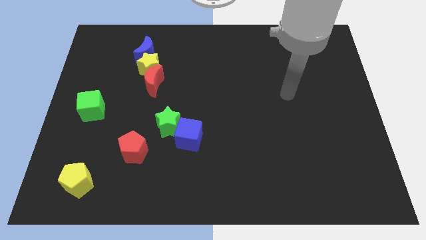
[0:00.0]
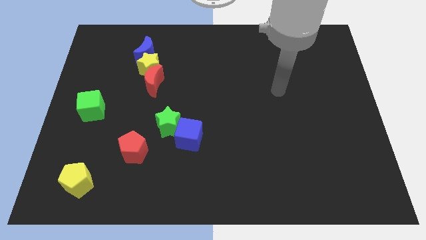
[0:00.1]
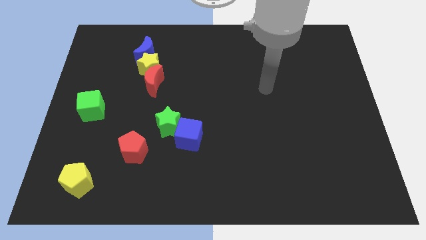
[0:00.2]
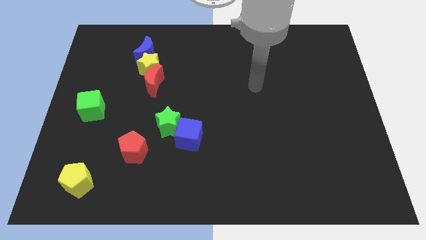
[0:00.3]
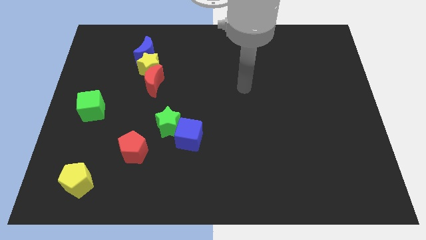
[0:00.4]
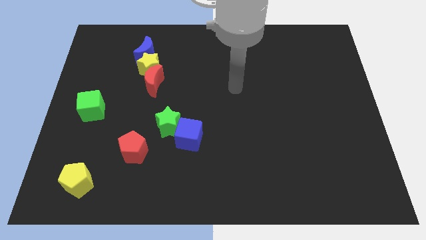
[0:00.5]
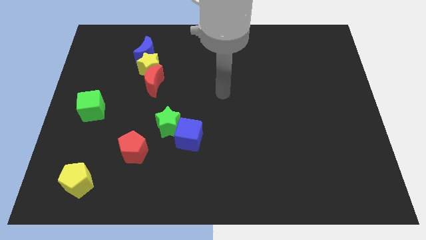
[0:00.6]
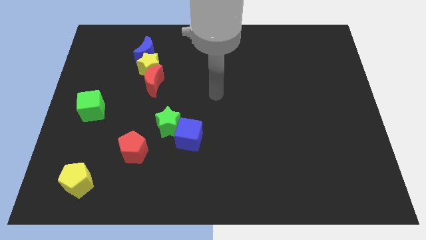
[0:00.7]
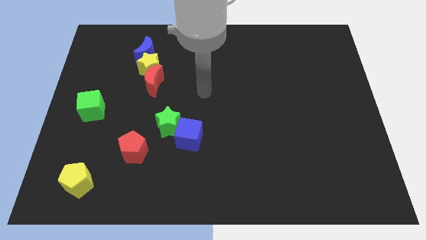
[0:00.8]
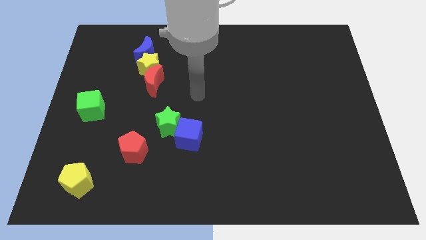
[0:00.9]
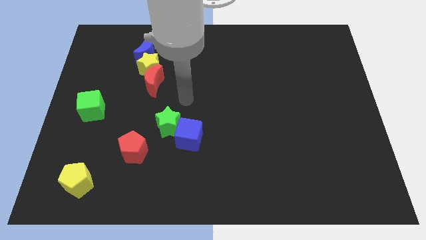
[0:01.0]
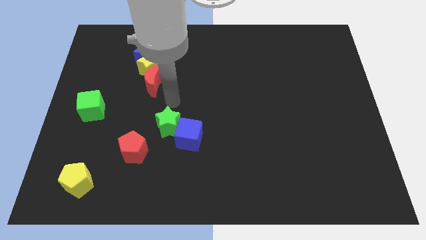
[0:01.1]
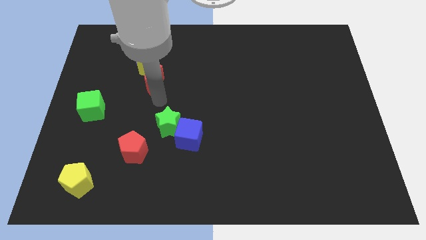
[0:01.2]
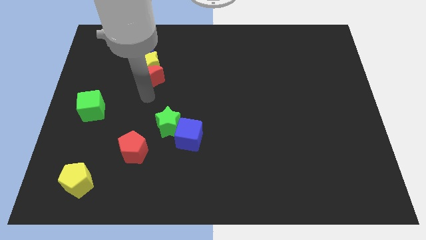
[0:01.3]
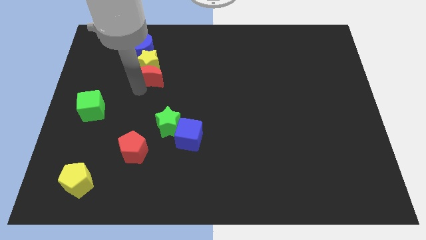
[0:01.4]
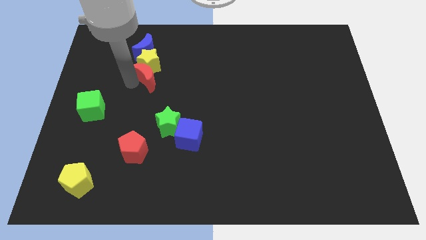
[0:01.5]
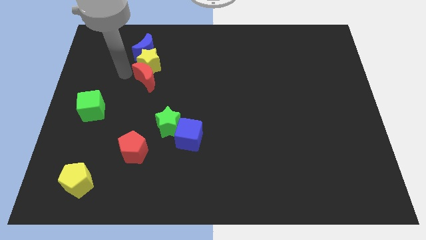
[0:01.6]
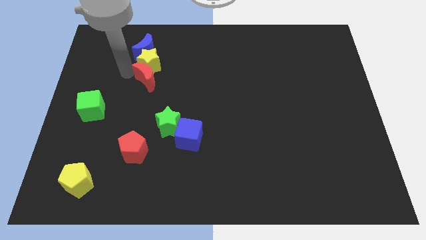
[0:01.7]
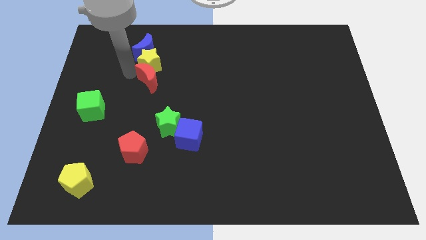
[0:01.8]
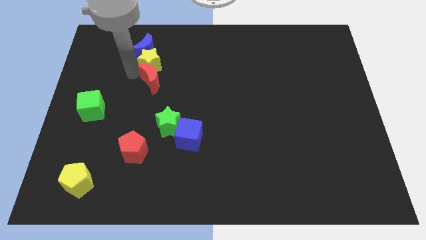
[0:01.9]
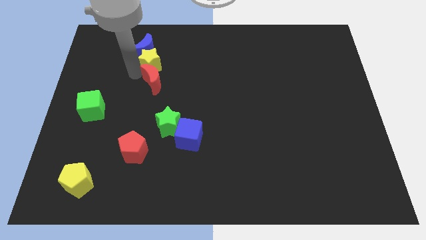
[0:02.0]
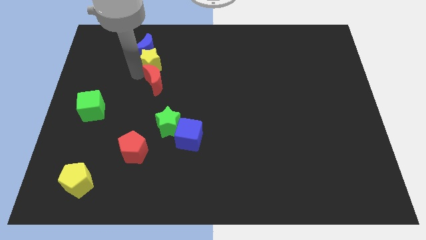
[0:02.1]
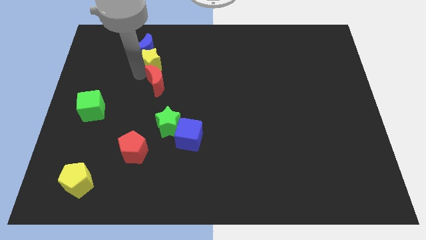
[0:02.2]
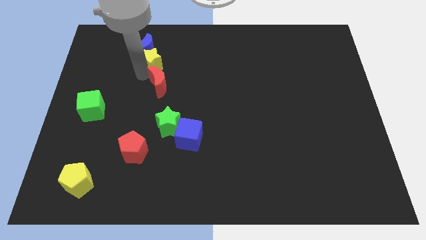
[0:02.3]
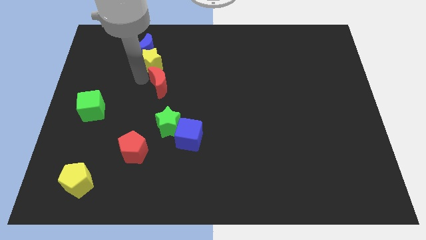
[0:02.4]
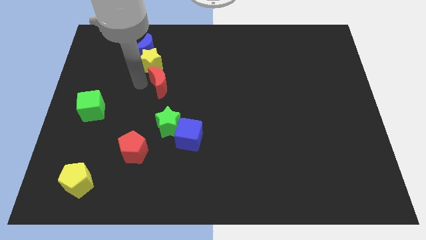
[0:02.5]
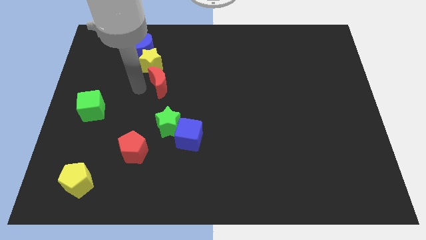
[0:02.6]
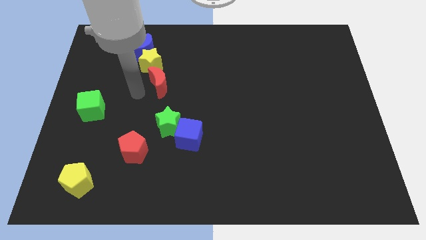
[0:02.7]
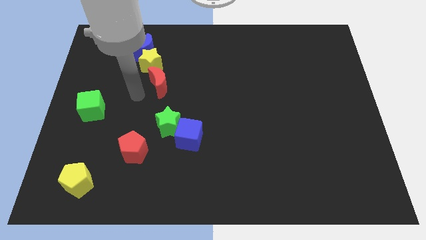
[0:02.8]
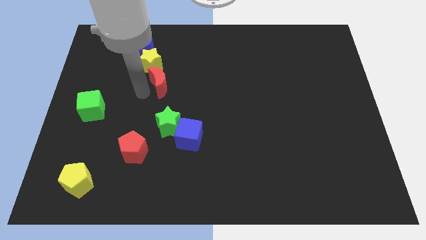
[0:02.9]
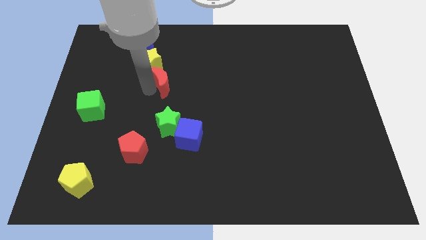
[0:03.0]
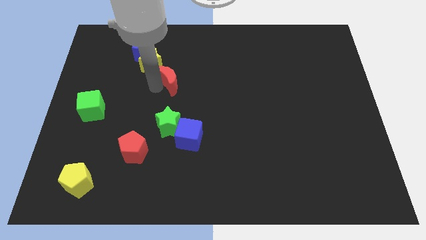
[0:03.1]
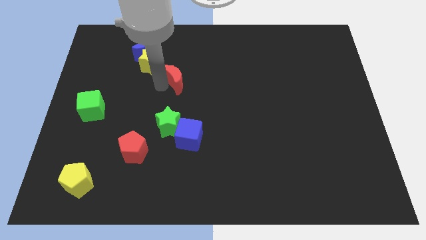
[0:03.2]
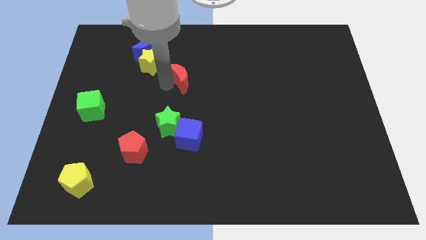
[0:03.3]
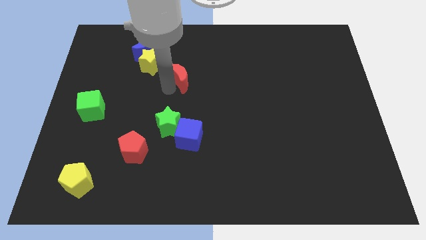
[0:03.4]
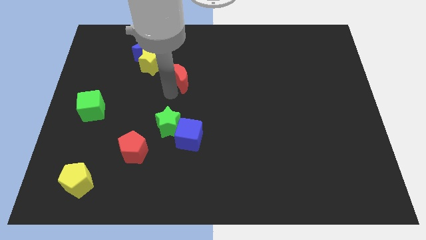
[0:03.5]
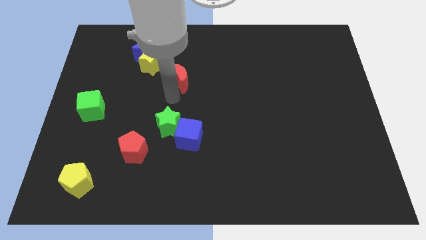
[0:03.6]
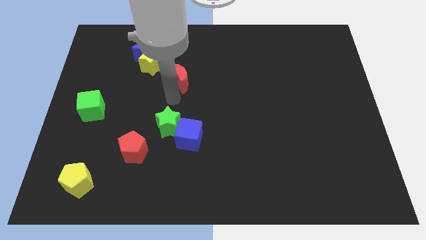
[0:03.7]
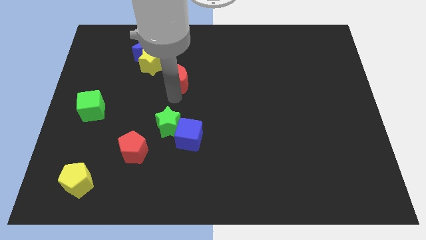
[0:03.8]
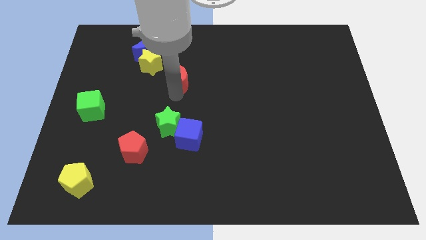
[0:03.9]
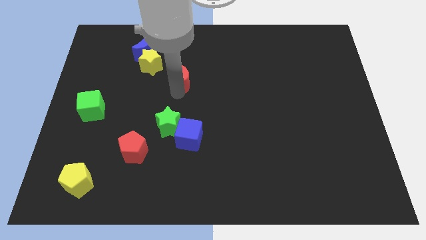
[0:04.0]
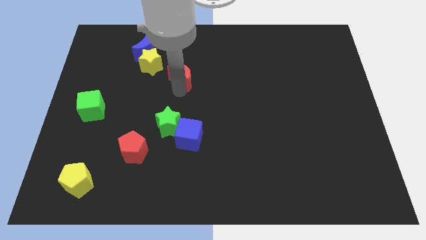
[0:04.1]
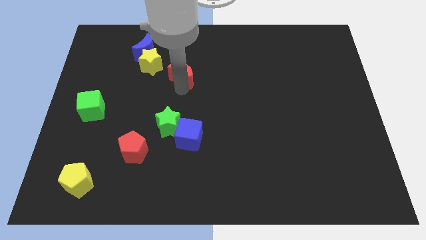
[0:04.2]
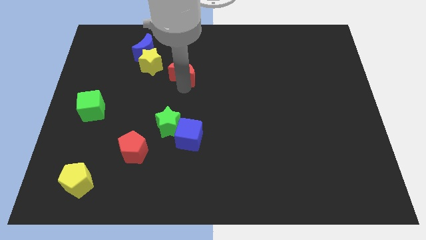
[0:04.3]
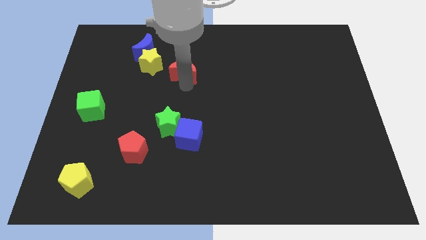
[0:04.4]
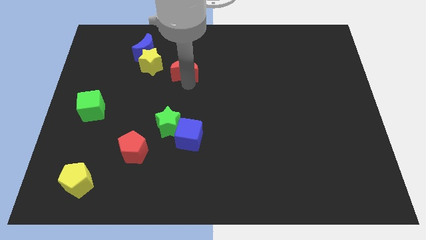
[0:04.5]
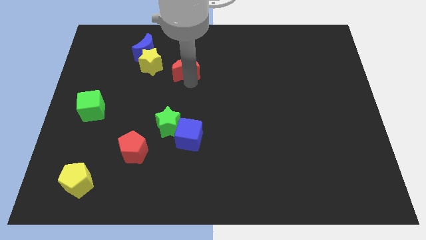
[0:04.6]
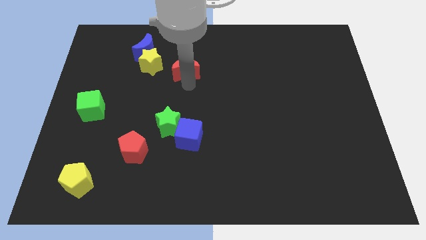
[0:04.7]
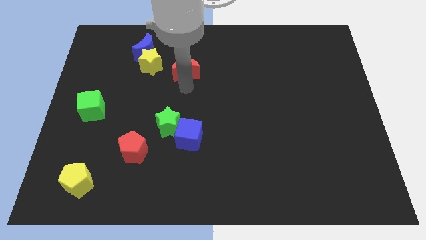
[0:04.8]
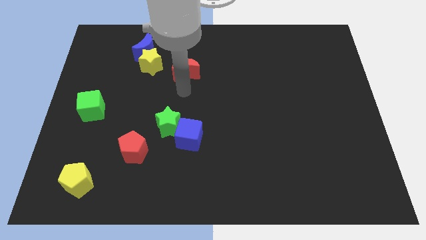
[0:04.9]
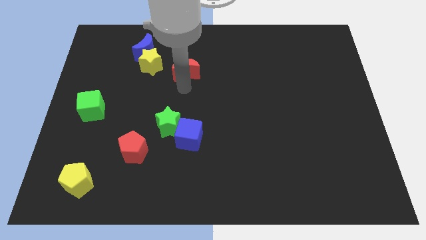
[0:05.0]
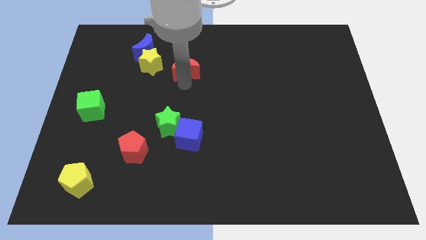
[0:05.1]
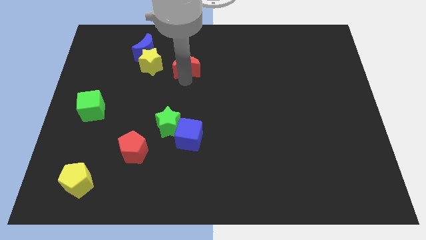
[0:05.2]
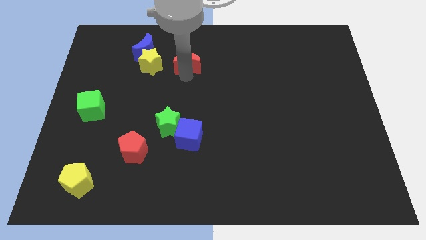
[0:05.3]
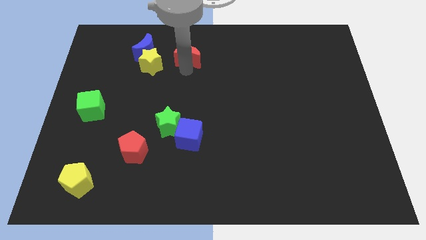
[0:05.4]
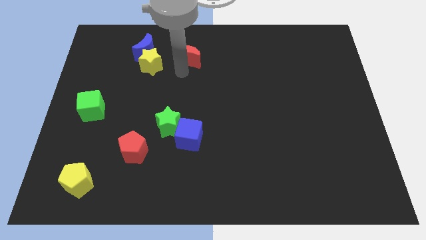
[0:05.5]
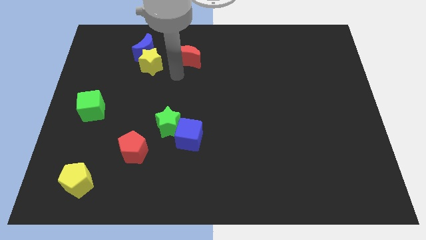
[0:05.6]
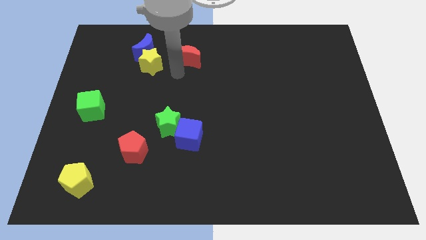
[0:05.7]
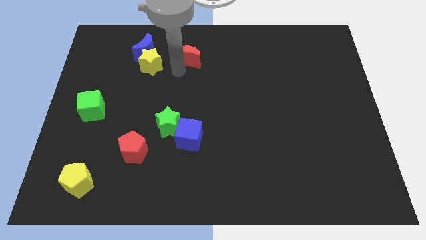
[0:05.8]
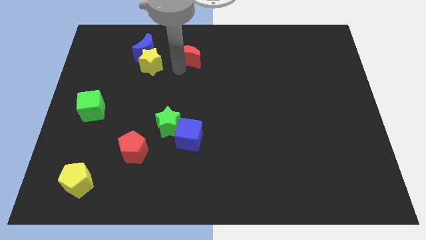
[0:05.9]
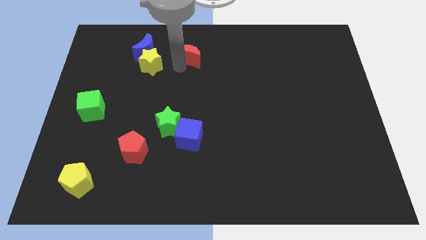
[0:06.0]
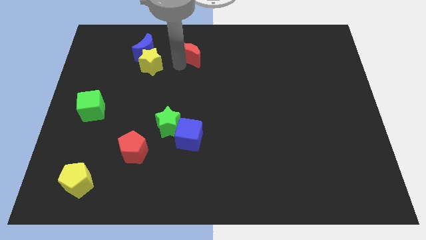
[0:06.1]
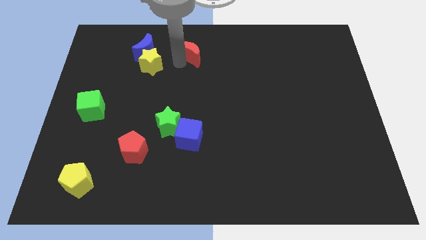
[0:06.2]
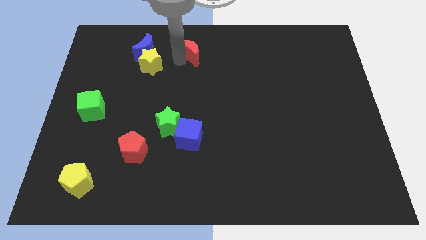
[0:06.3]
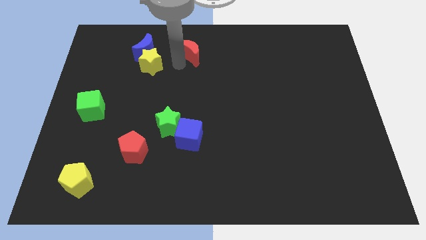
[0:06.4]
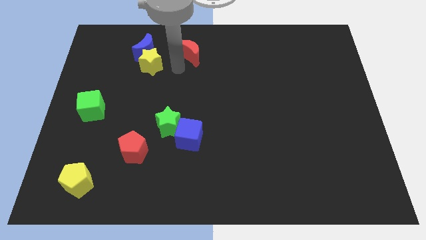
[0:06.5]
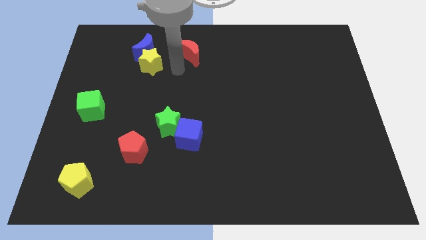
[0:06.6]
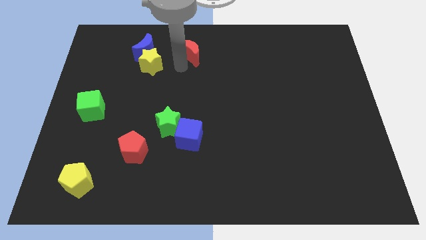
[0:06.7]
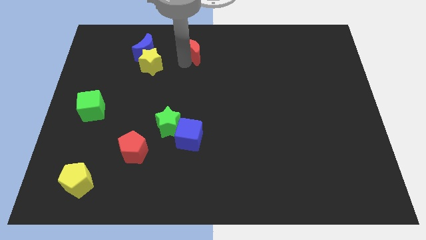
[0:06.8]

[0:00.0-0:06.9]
push the red moon to the top side
